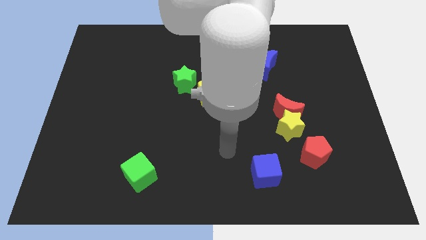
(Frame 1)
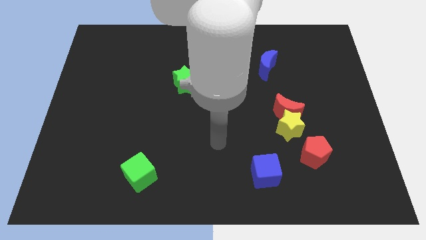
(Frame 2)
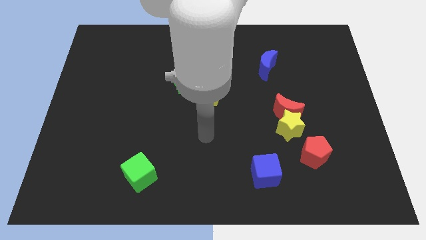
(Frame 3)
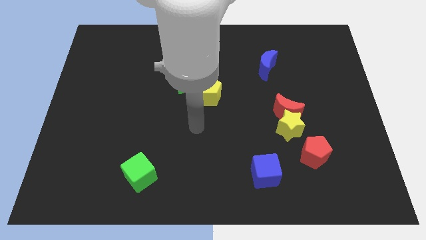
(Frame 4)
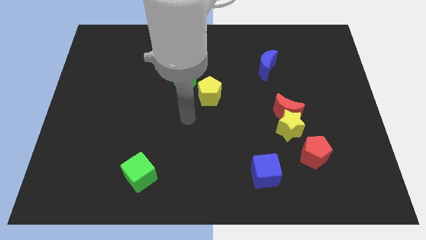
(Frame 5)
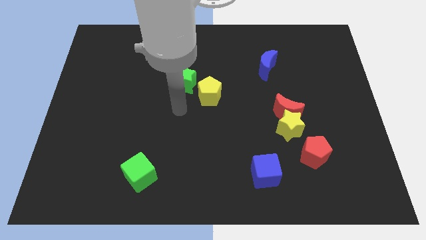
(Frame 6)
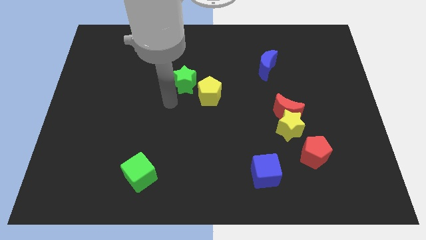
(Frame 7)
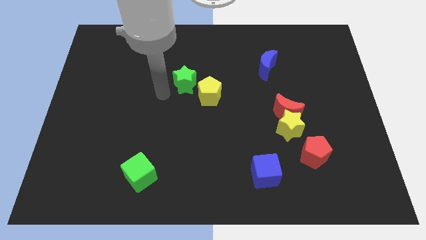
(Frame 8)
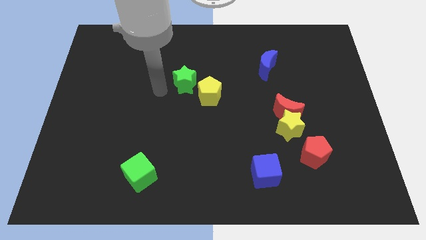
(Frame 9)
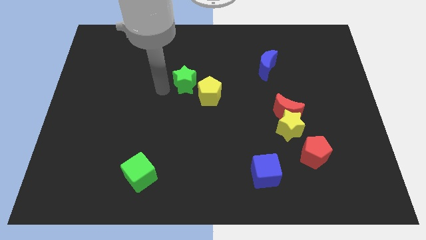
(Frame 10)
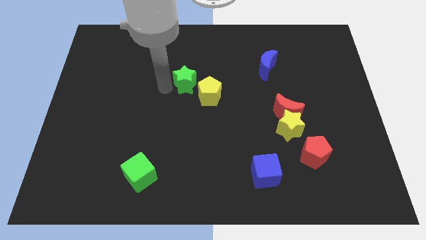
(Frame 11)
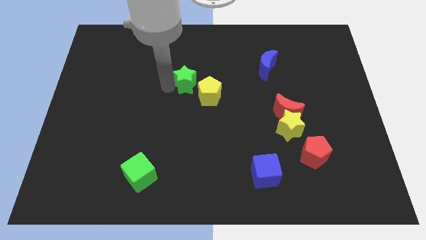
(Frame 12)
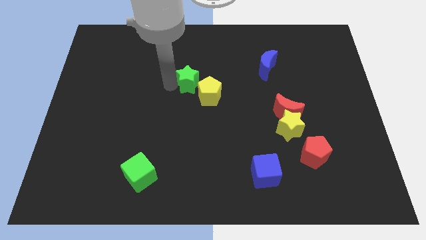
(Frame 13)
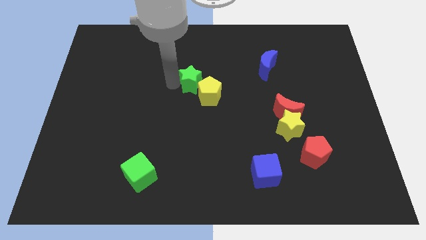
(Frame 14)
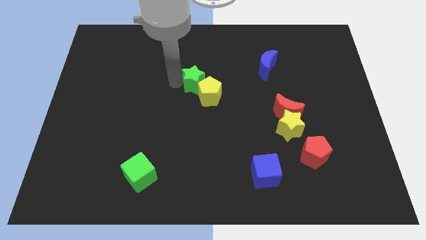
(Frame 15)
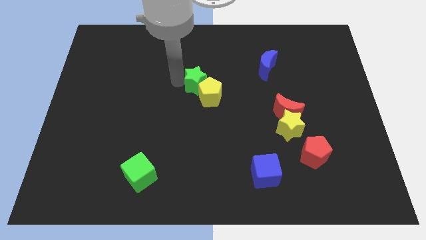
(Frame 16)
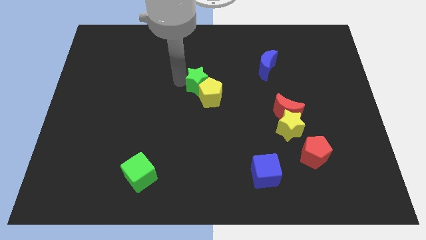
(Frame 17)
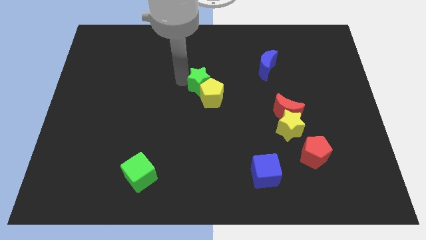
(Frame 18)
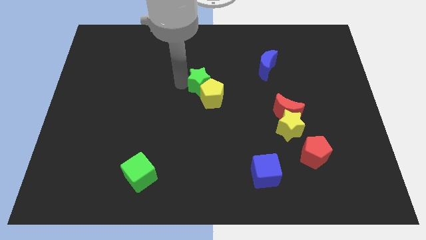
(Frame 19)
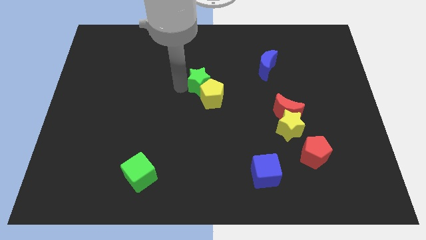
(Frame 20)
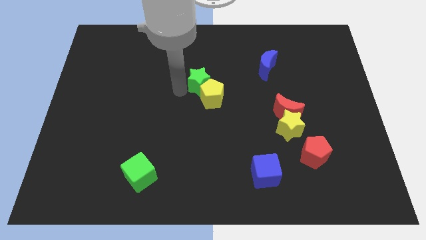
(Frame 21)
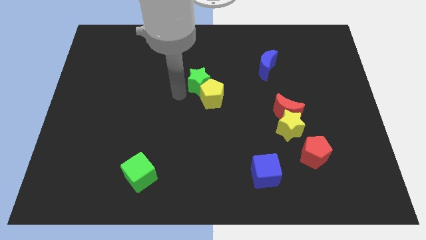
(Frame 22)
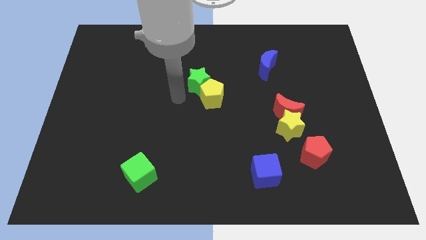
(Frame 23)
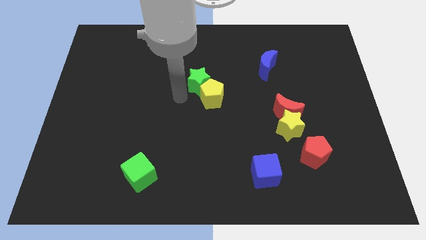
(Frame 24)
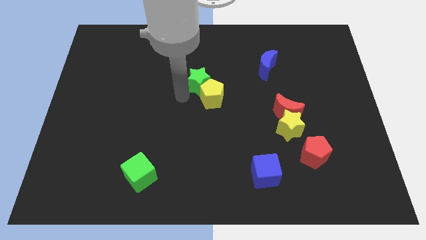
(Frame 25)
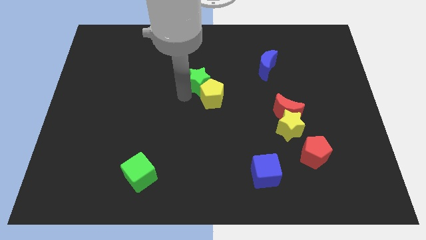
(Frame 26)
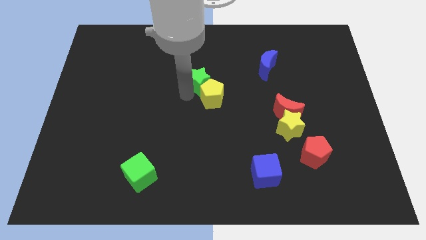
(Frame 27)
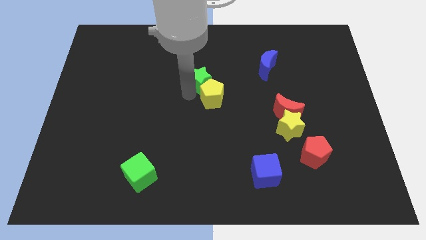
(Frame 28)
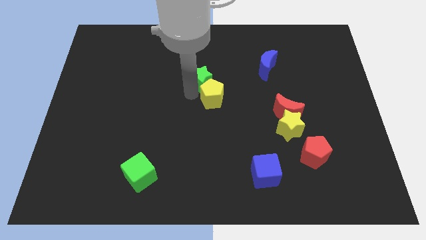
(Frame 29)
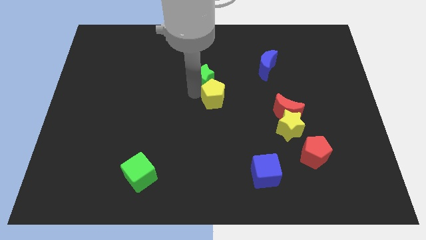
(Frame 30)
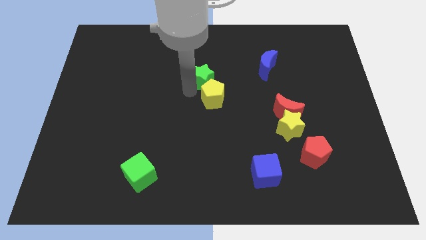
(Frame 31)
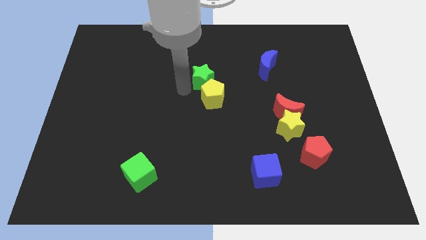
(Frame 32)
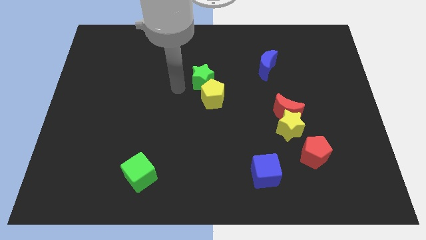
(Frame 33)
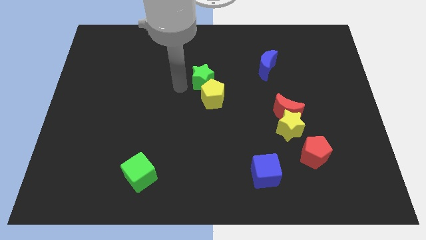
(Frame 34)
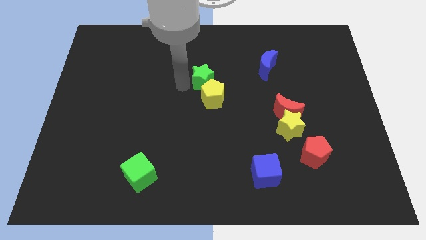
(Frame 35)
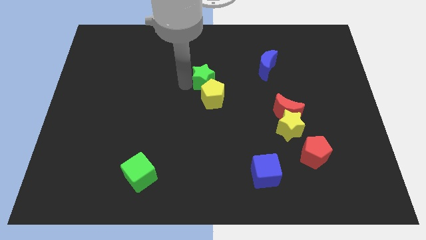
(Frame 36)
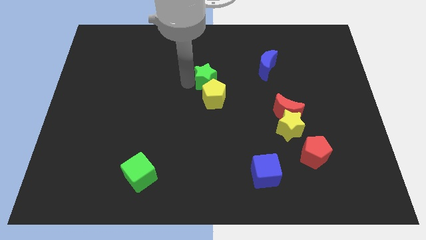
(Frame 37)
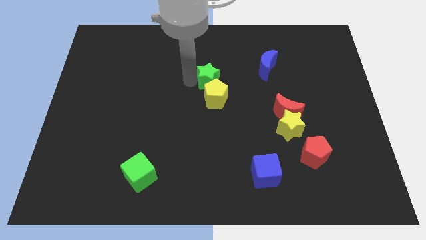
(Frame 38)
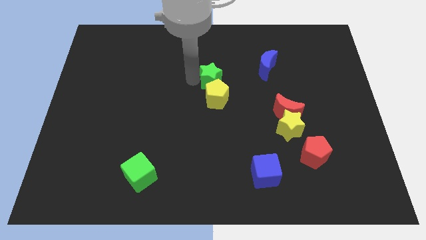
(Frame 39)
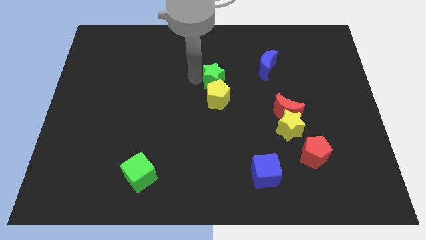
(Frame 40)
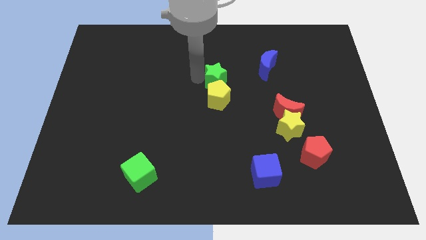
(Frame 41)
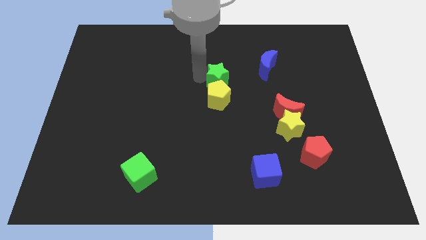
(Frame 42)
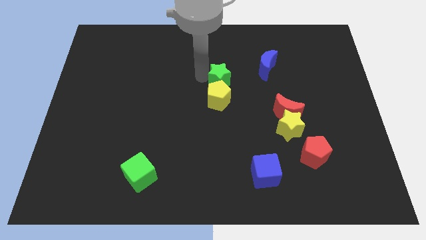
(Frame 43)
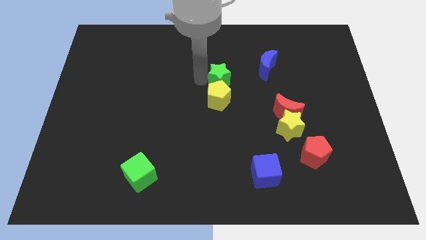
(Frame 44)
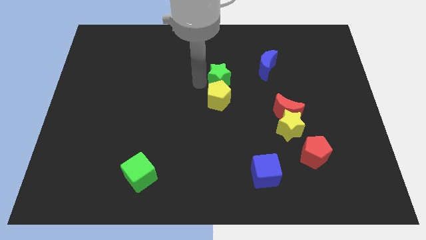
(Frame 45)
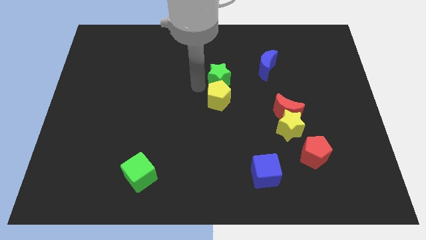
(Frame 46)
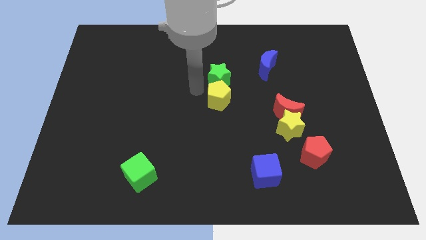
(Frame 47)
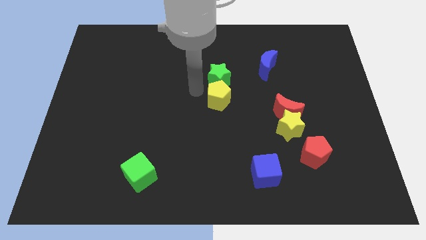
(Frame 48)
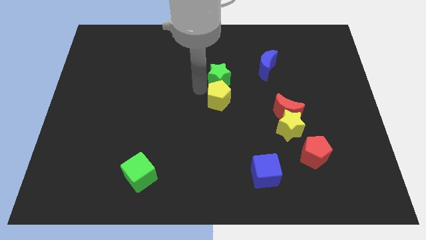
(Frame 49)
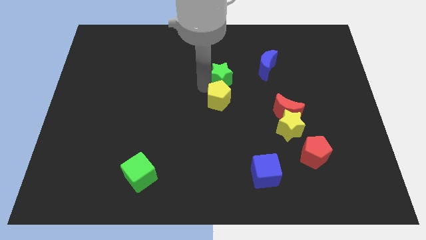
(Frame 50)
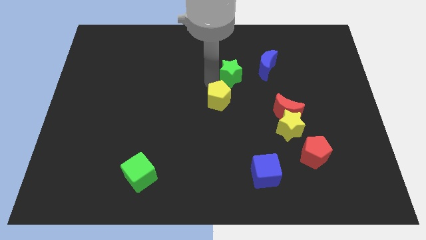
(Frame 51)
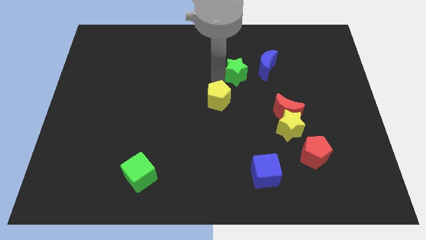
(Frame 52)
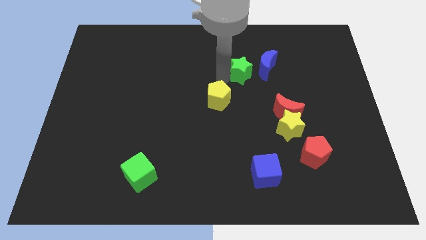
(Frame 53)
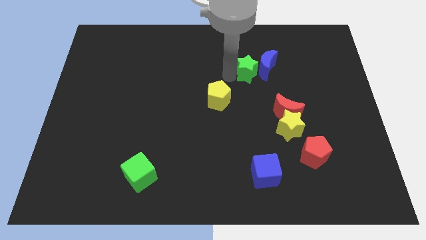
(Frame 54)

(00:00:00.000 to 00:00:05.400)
push the green star towards the blue moon

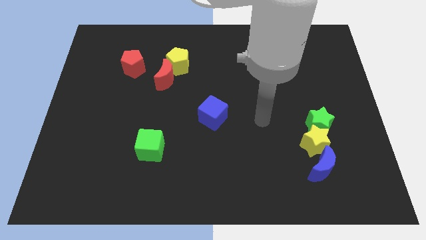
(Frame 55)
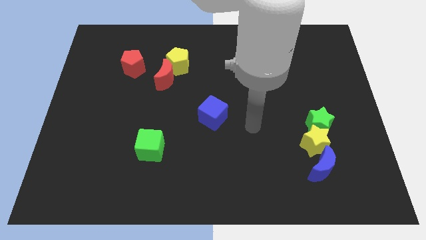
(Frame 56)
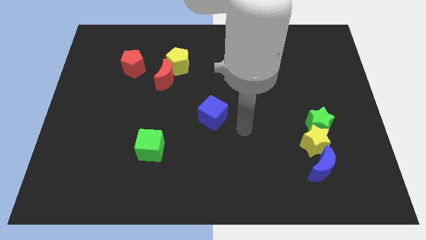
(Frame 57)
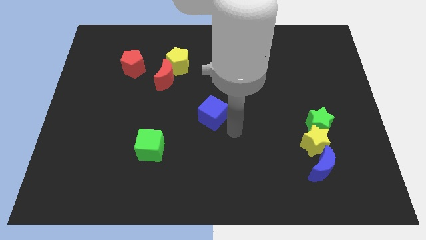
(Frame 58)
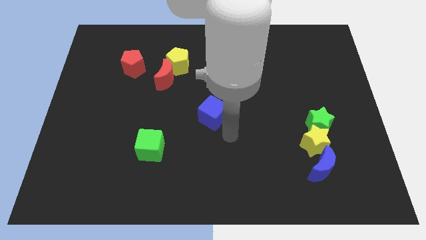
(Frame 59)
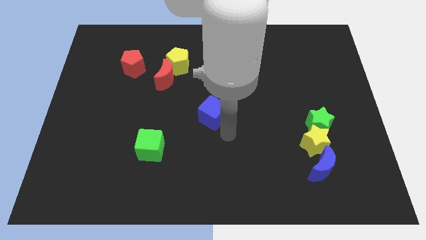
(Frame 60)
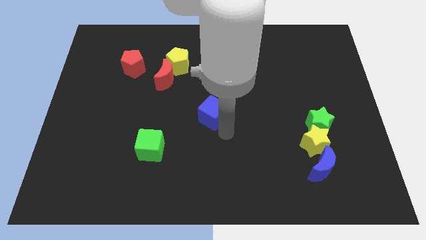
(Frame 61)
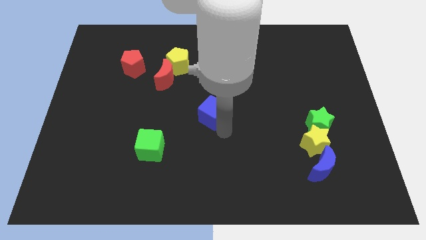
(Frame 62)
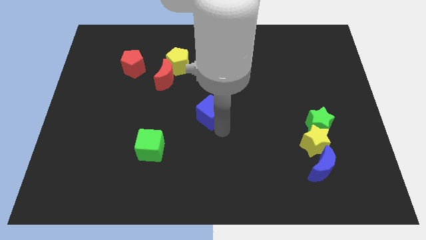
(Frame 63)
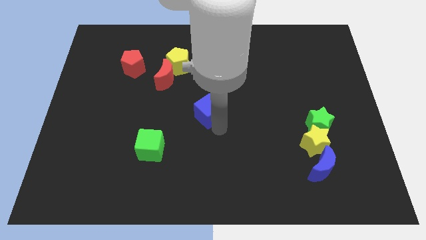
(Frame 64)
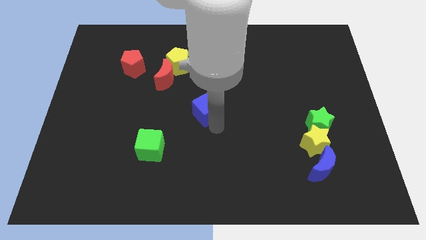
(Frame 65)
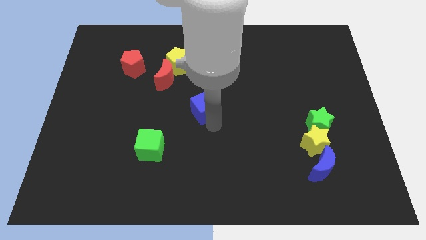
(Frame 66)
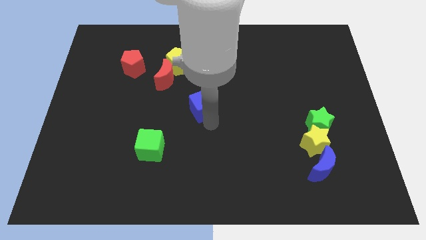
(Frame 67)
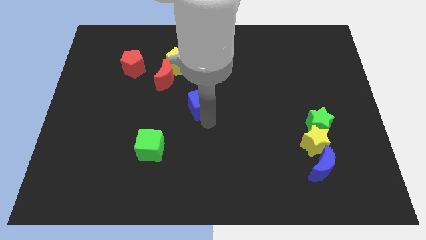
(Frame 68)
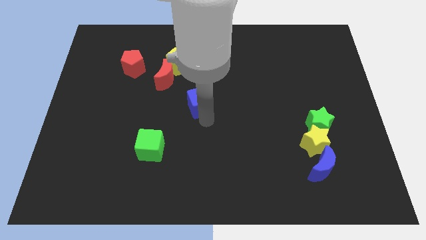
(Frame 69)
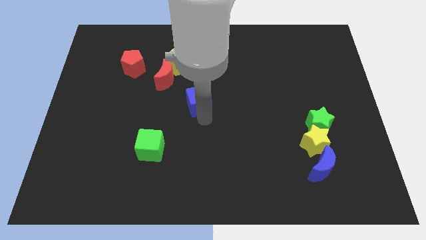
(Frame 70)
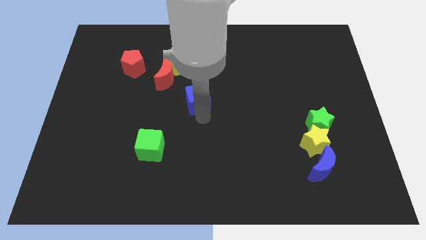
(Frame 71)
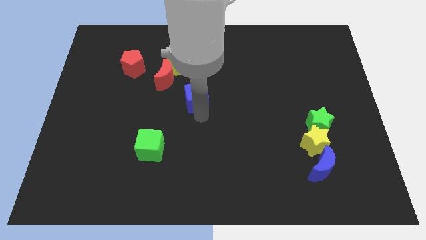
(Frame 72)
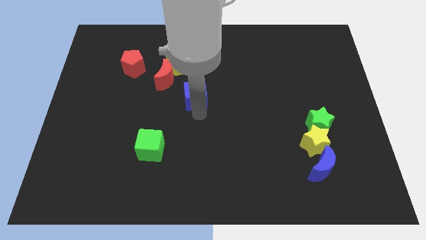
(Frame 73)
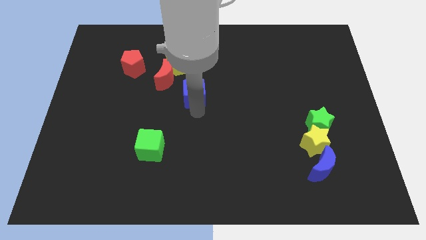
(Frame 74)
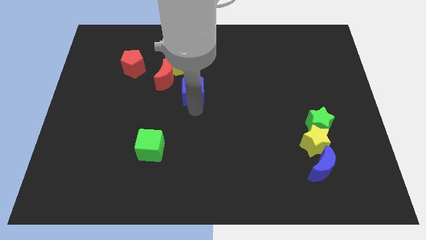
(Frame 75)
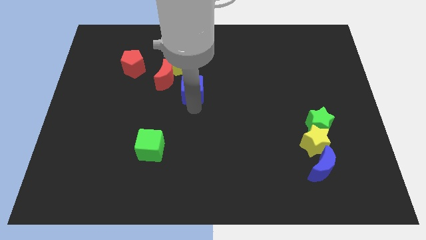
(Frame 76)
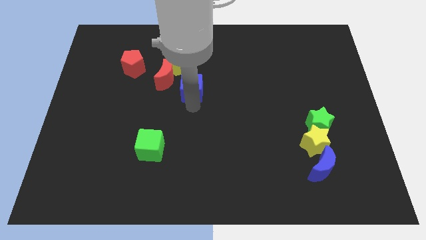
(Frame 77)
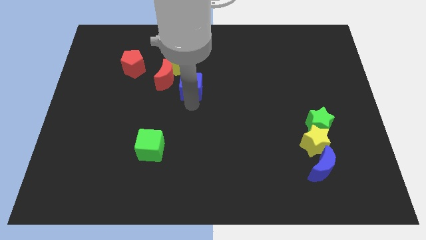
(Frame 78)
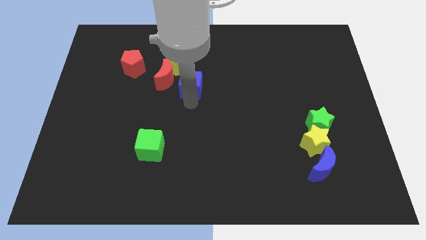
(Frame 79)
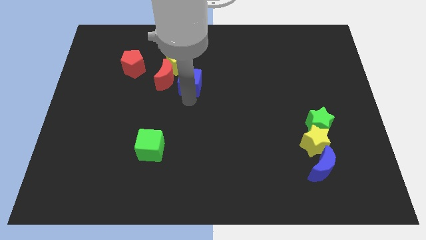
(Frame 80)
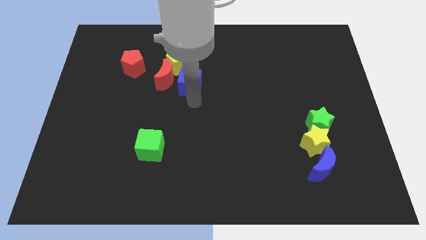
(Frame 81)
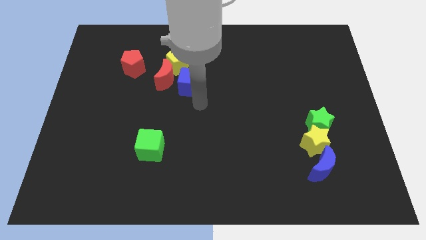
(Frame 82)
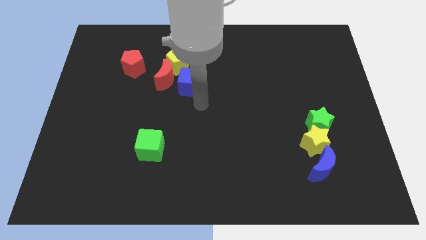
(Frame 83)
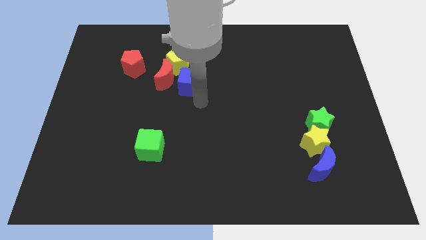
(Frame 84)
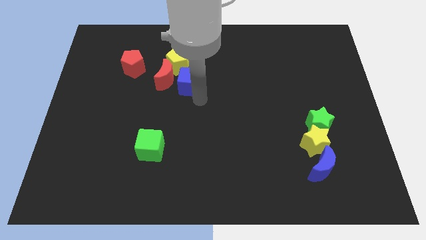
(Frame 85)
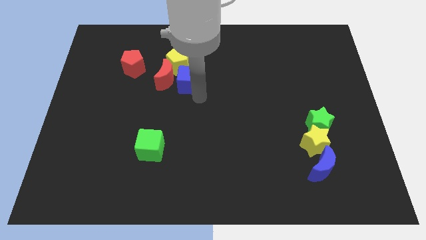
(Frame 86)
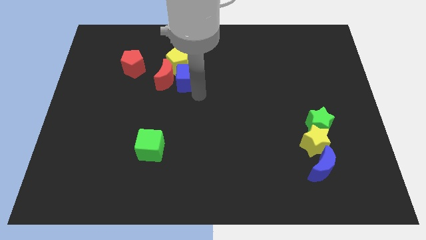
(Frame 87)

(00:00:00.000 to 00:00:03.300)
slide the blue cube to the yellow pentagon
